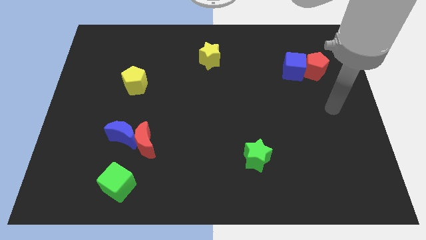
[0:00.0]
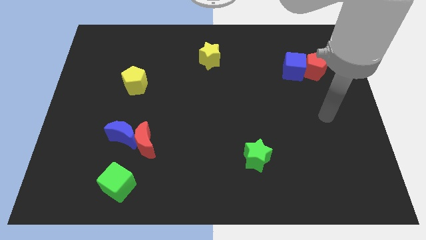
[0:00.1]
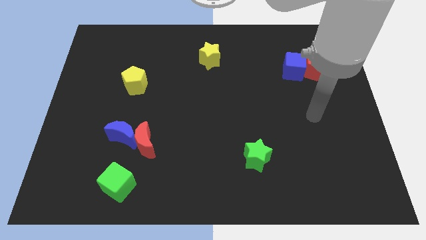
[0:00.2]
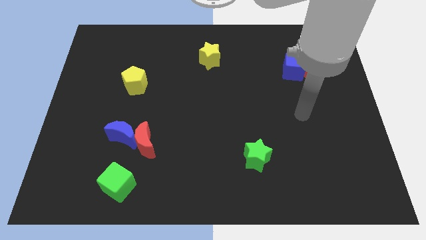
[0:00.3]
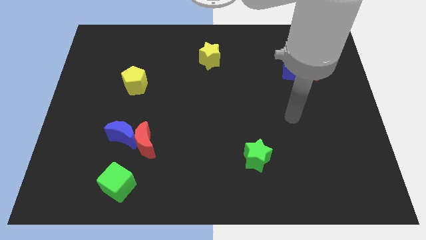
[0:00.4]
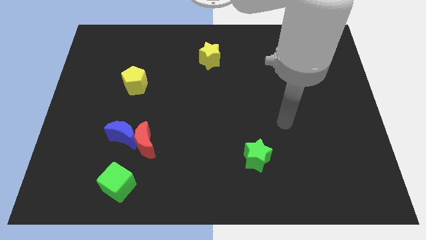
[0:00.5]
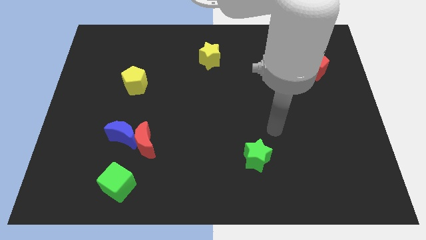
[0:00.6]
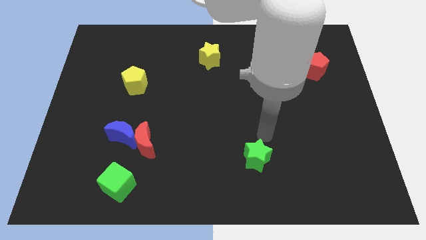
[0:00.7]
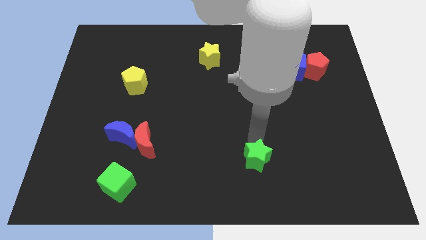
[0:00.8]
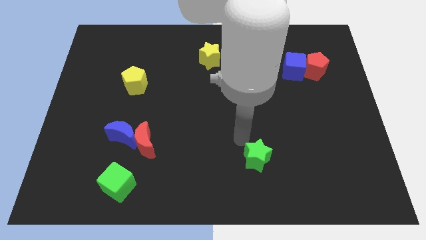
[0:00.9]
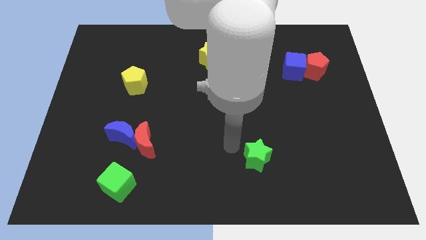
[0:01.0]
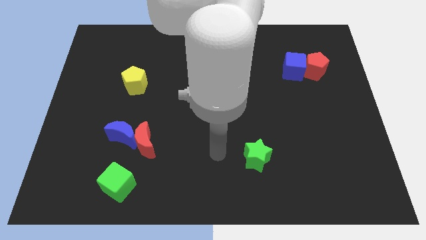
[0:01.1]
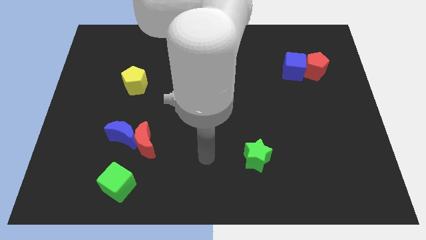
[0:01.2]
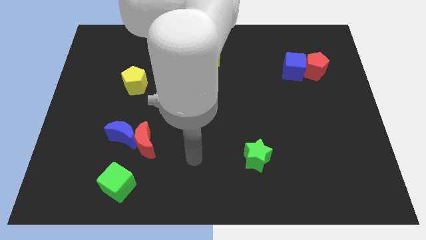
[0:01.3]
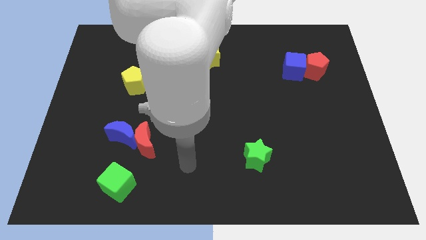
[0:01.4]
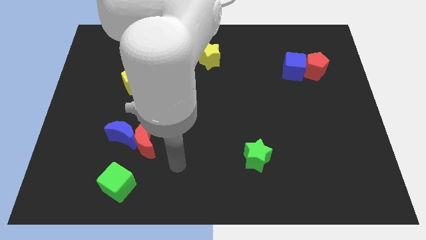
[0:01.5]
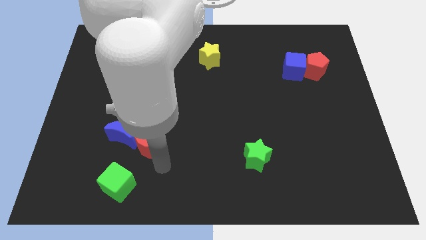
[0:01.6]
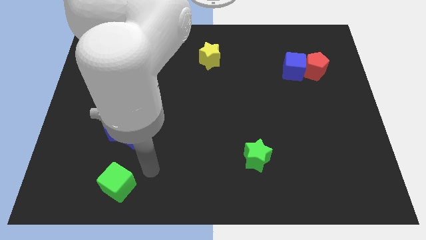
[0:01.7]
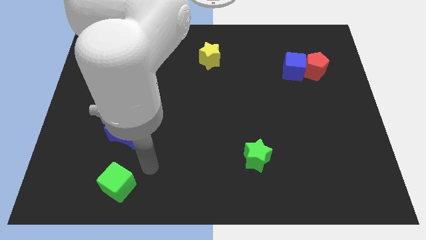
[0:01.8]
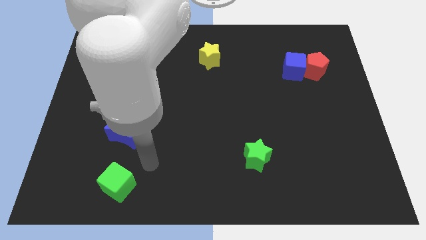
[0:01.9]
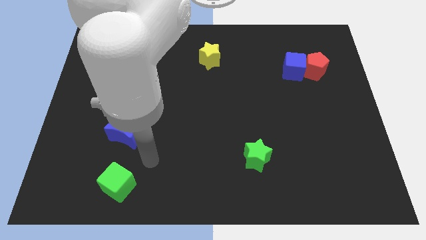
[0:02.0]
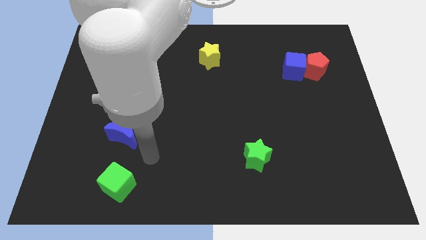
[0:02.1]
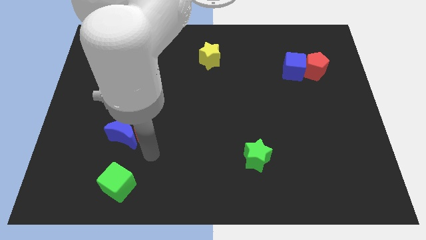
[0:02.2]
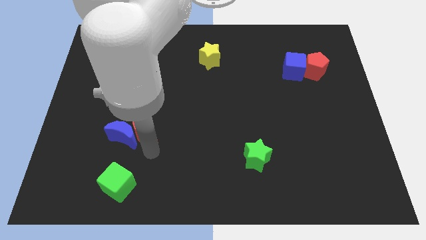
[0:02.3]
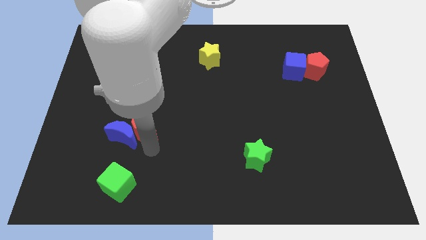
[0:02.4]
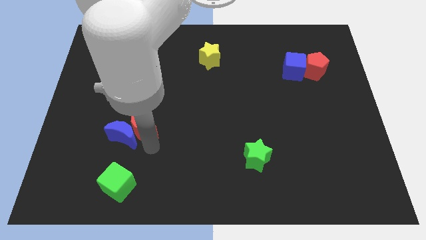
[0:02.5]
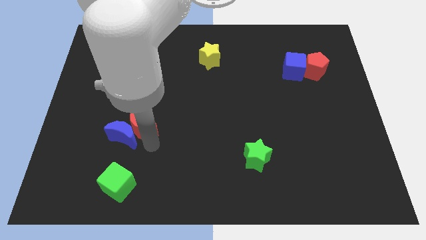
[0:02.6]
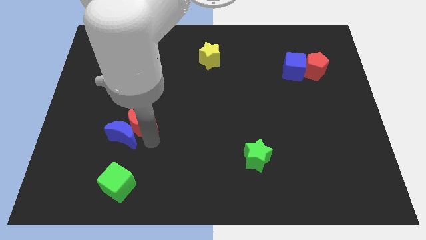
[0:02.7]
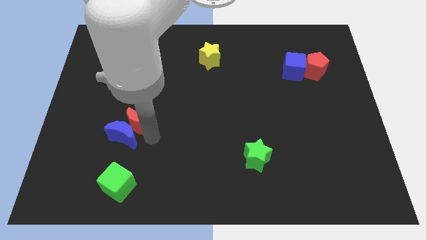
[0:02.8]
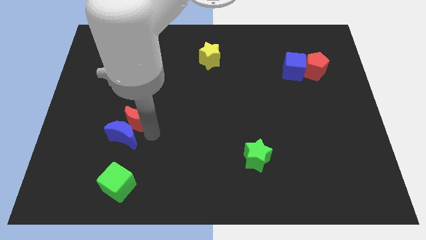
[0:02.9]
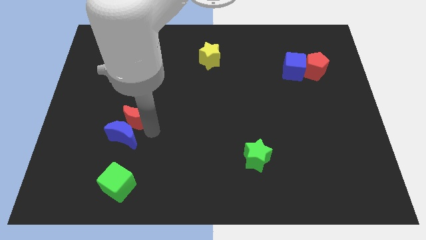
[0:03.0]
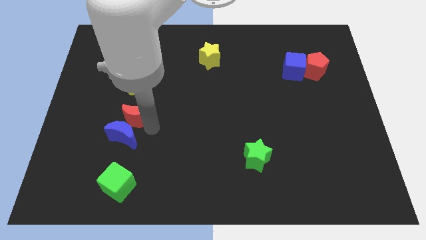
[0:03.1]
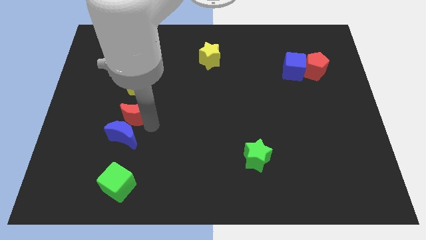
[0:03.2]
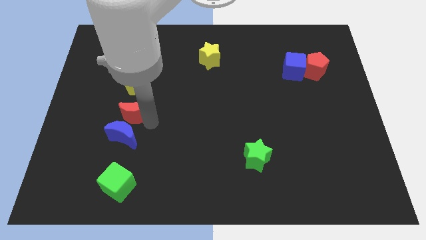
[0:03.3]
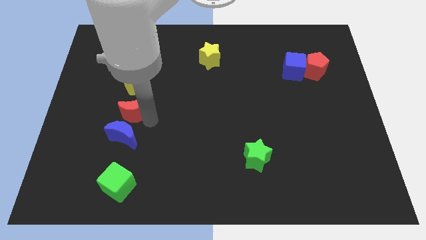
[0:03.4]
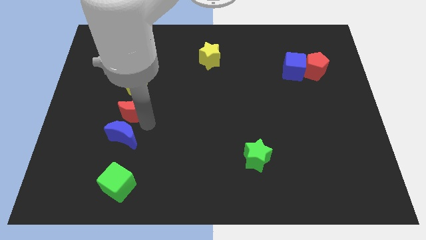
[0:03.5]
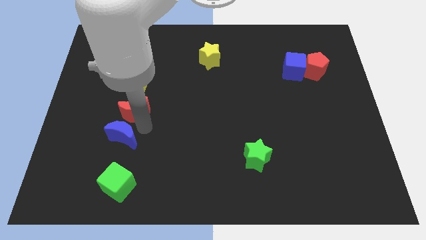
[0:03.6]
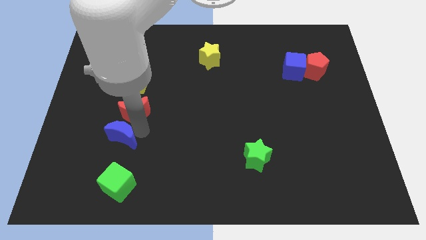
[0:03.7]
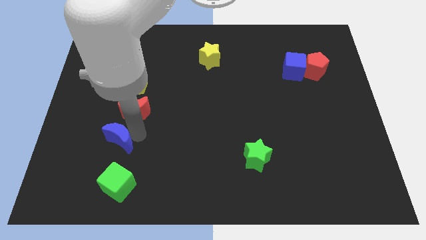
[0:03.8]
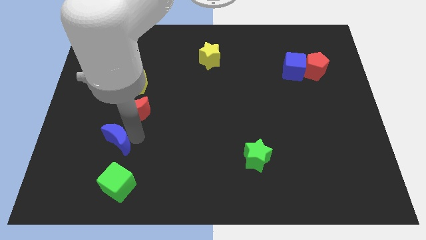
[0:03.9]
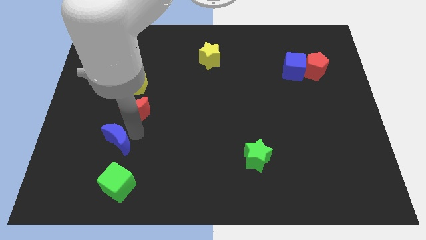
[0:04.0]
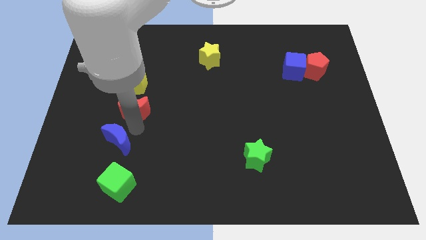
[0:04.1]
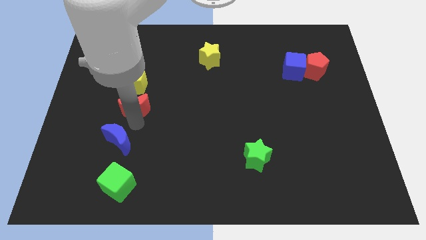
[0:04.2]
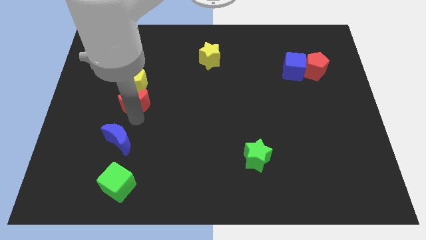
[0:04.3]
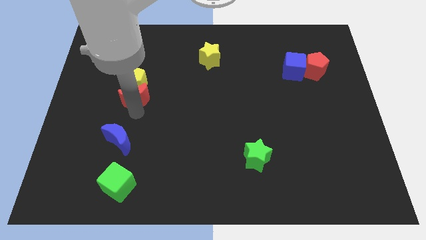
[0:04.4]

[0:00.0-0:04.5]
move the red moon towards the yellow pentagon

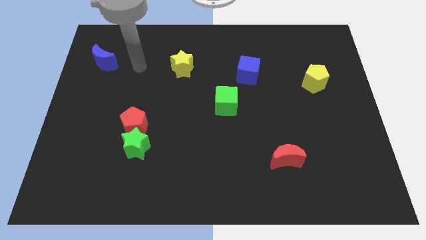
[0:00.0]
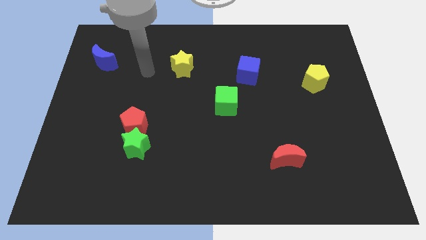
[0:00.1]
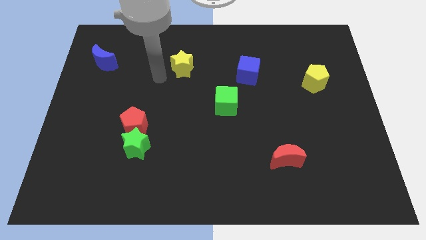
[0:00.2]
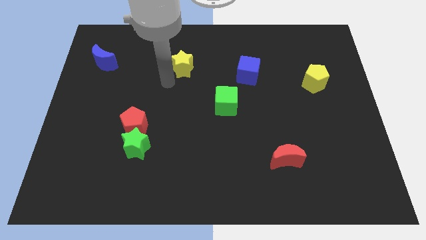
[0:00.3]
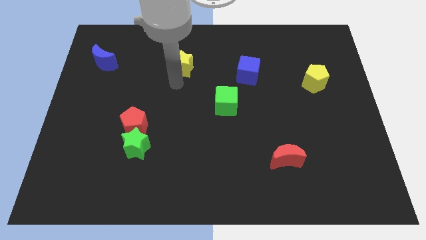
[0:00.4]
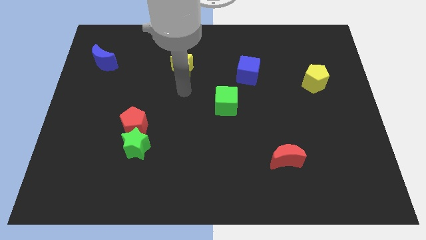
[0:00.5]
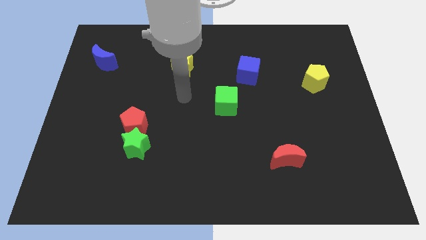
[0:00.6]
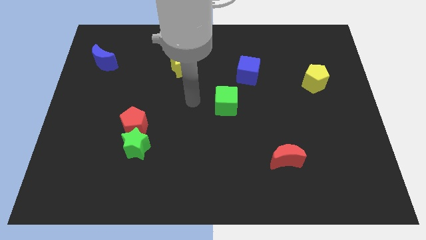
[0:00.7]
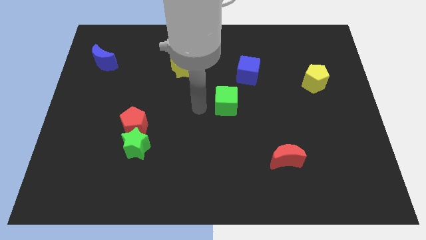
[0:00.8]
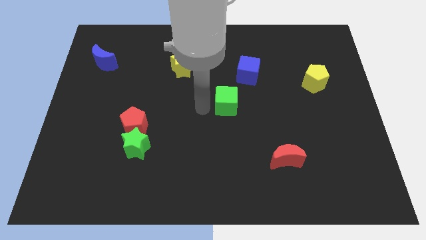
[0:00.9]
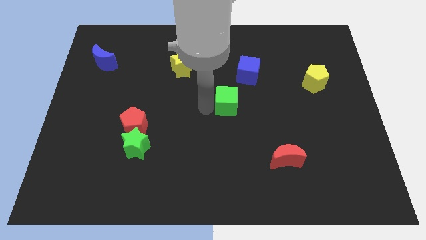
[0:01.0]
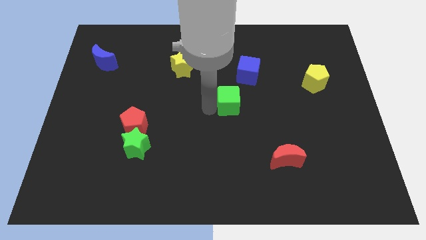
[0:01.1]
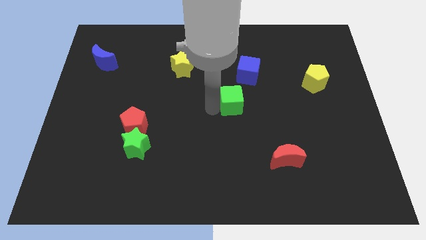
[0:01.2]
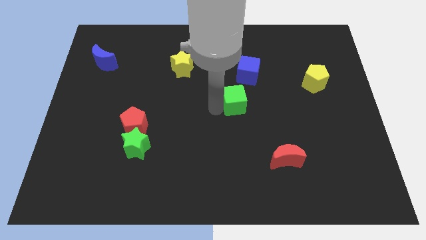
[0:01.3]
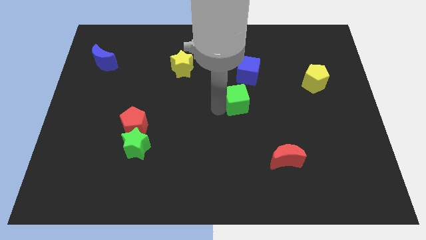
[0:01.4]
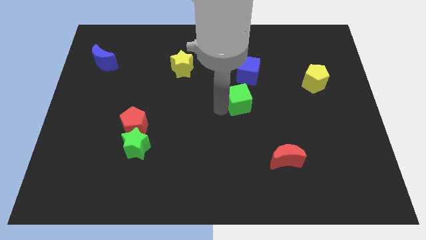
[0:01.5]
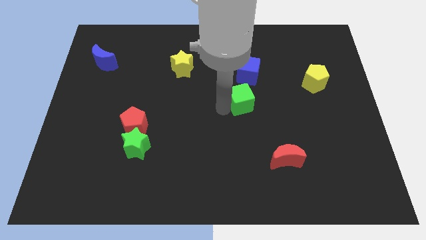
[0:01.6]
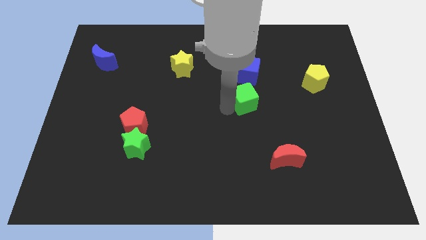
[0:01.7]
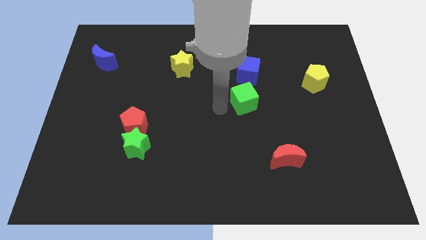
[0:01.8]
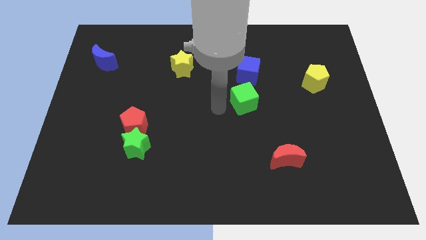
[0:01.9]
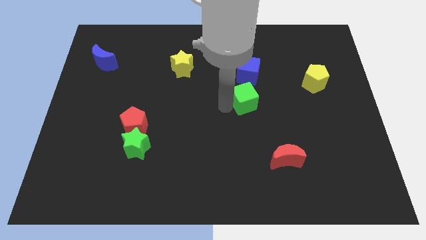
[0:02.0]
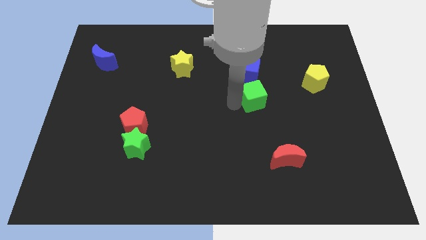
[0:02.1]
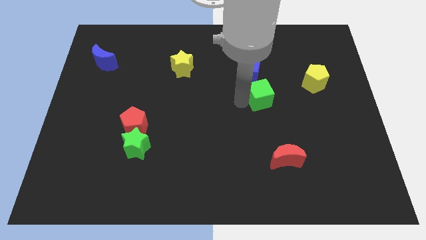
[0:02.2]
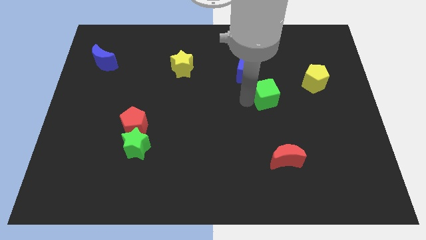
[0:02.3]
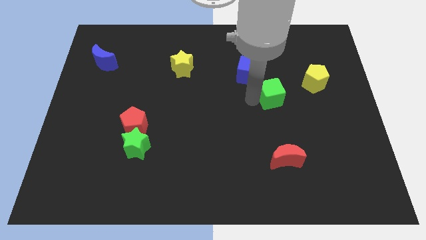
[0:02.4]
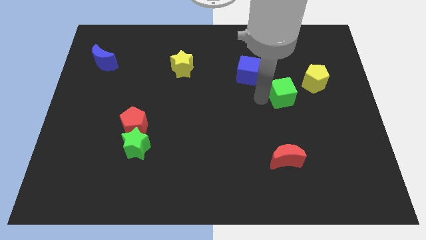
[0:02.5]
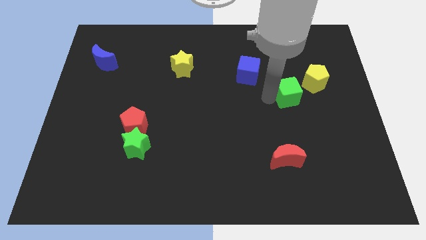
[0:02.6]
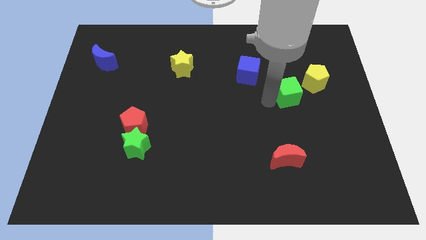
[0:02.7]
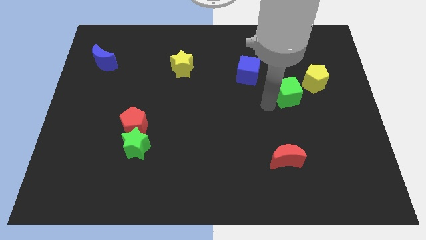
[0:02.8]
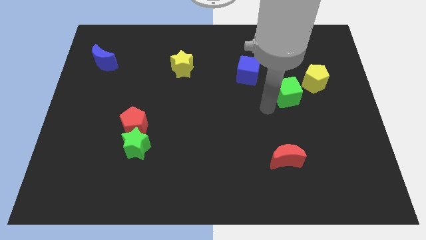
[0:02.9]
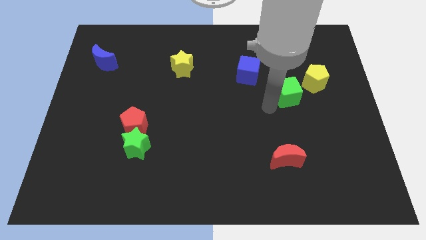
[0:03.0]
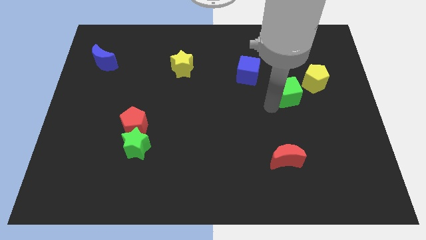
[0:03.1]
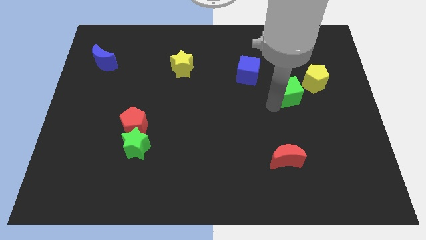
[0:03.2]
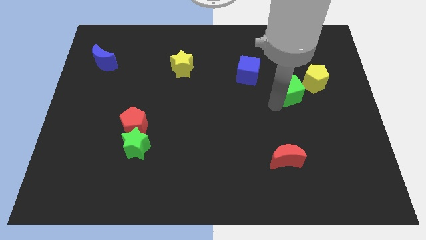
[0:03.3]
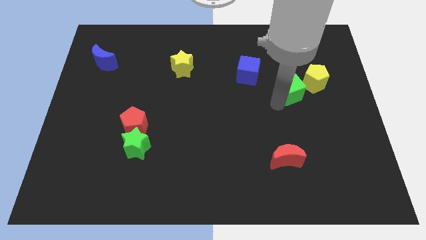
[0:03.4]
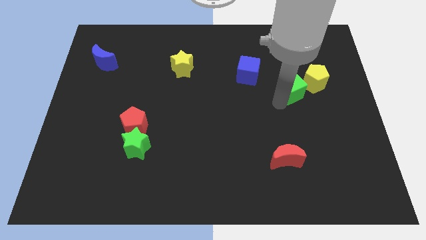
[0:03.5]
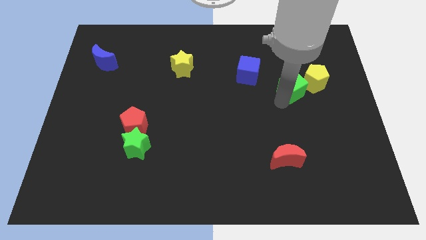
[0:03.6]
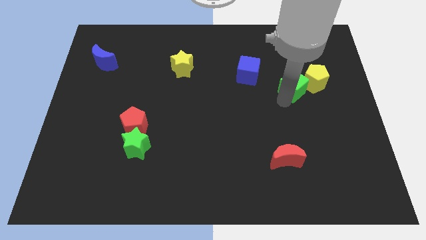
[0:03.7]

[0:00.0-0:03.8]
put the green cube to the yellow pentagon
